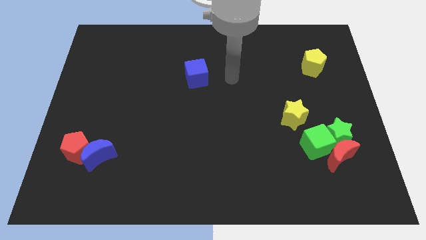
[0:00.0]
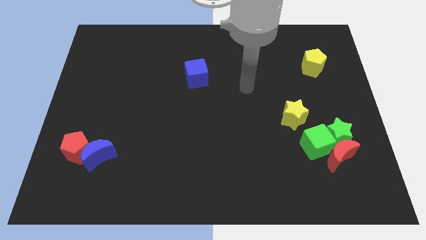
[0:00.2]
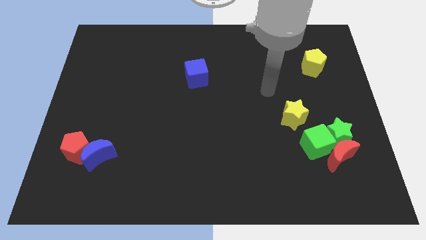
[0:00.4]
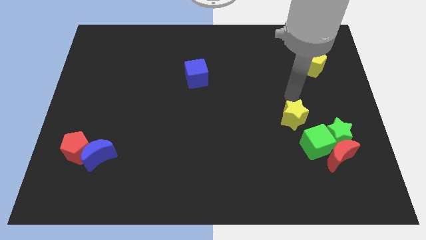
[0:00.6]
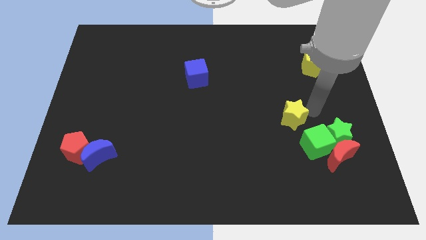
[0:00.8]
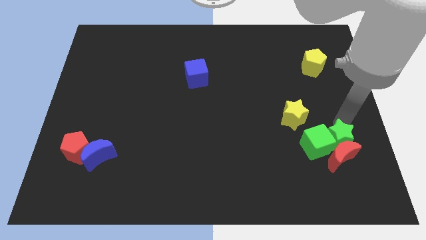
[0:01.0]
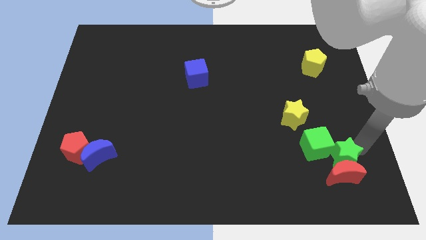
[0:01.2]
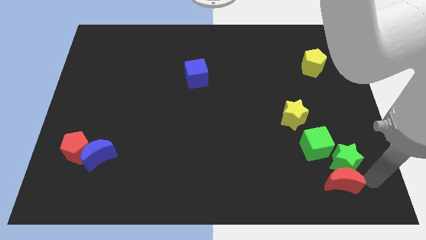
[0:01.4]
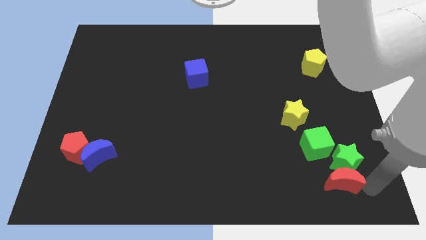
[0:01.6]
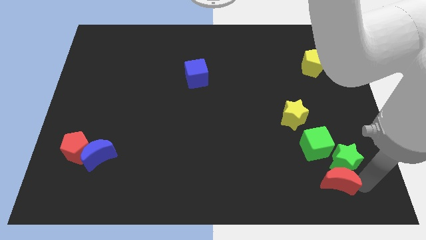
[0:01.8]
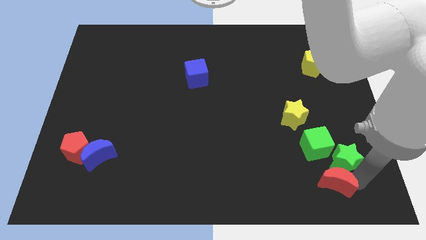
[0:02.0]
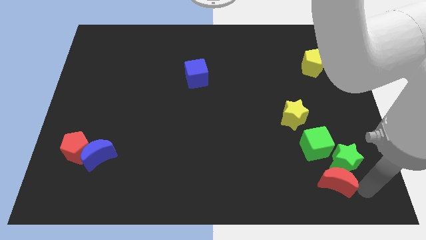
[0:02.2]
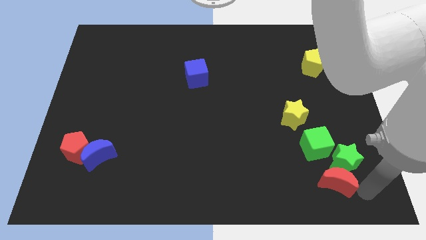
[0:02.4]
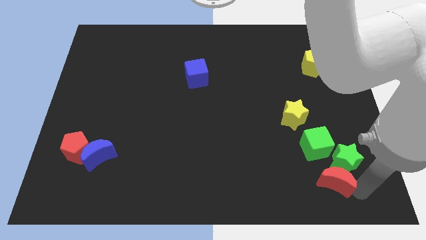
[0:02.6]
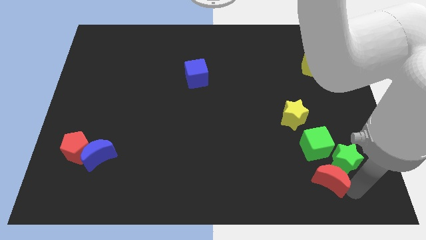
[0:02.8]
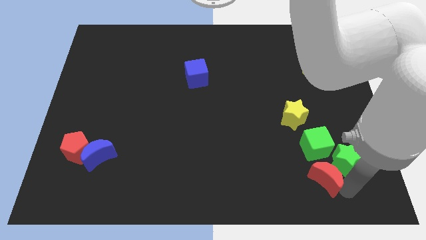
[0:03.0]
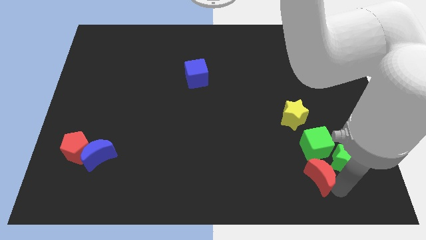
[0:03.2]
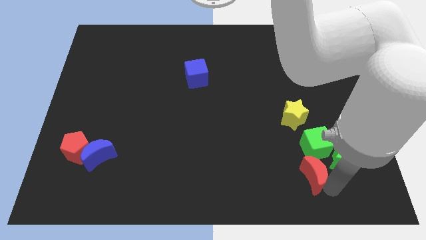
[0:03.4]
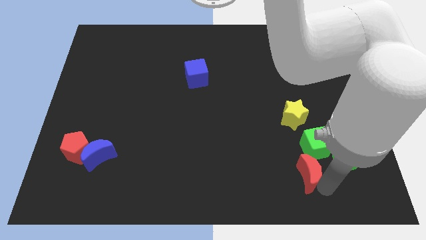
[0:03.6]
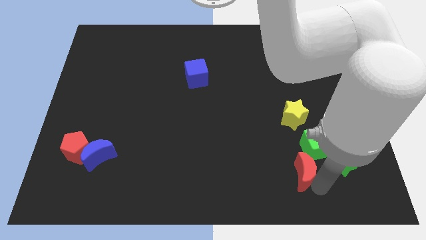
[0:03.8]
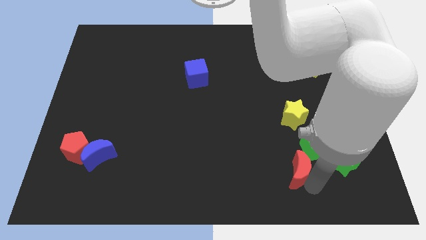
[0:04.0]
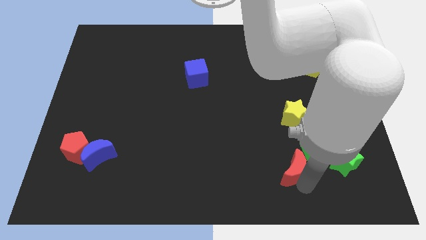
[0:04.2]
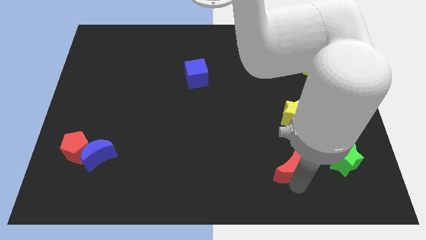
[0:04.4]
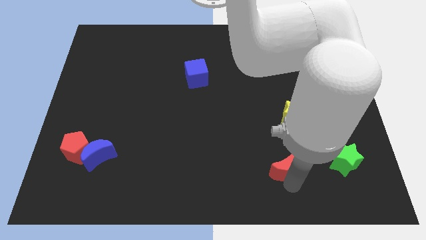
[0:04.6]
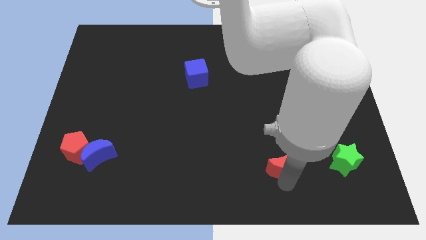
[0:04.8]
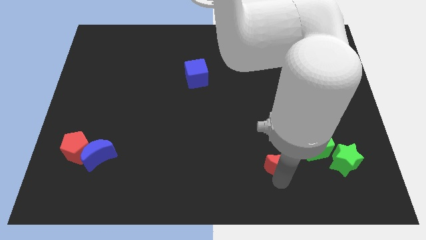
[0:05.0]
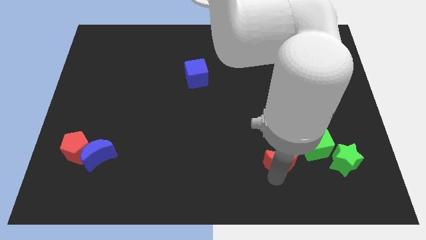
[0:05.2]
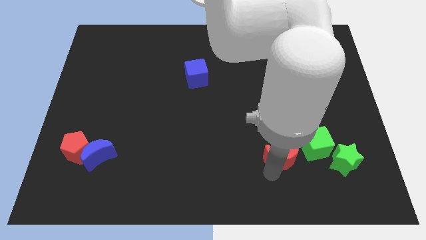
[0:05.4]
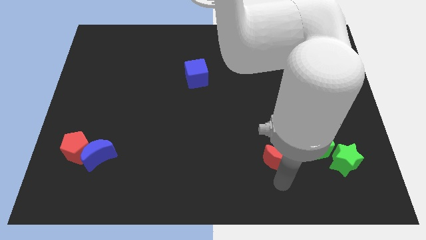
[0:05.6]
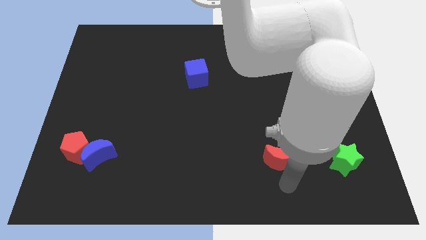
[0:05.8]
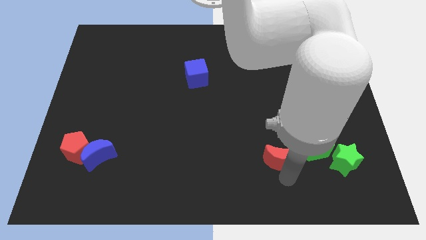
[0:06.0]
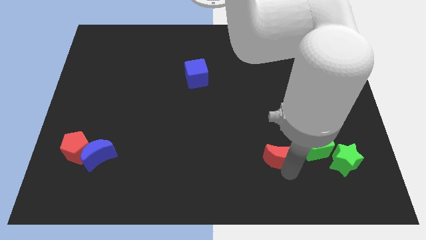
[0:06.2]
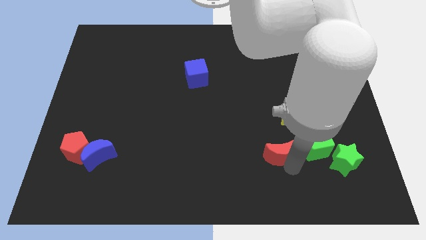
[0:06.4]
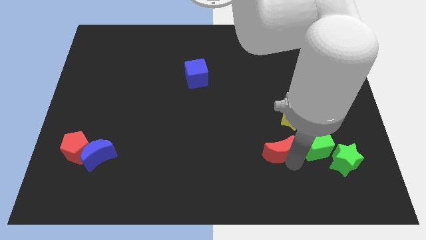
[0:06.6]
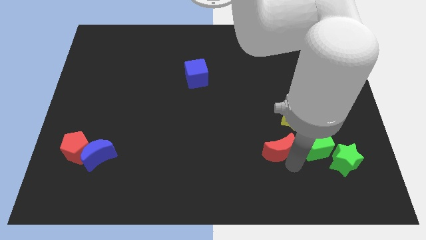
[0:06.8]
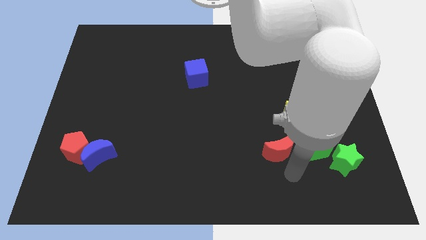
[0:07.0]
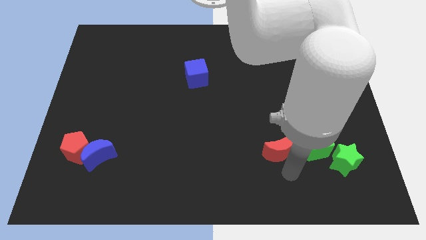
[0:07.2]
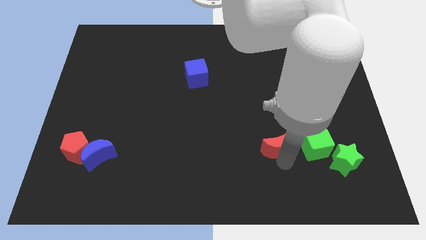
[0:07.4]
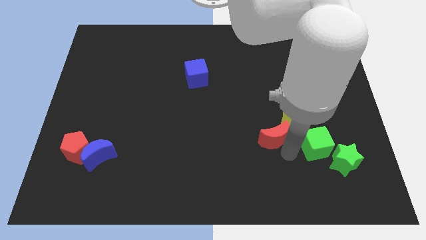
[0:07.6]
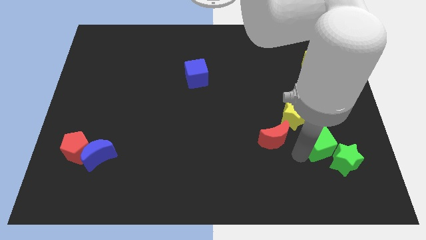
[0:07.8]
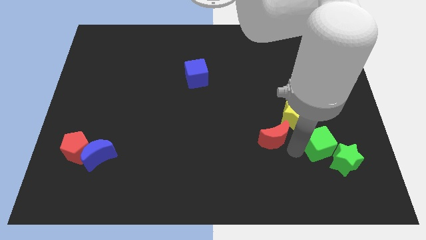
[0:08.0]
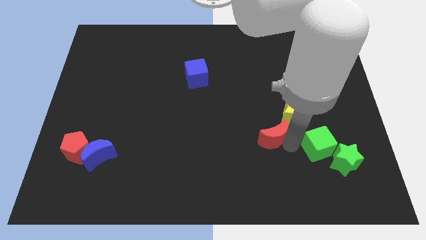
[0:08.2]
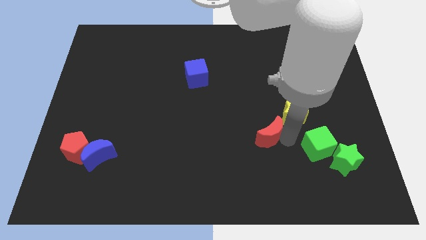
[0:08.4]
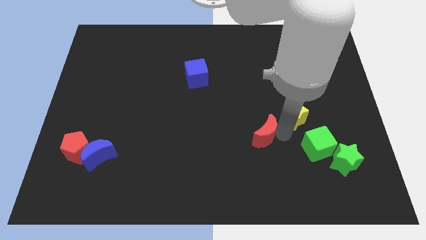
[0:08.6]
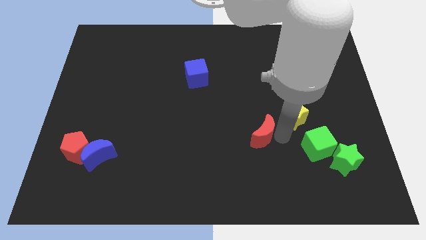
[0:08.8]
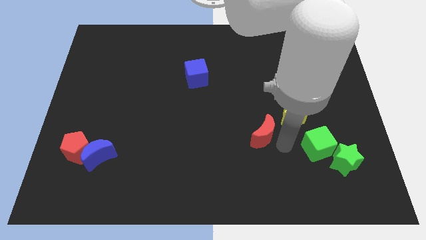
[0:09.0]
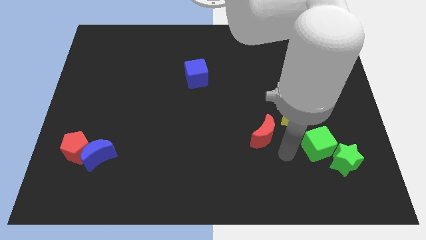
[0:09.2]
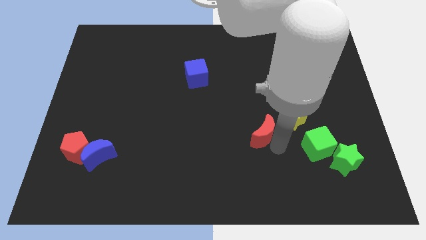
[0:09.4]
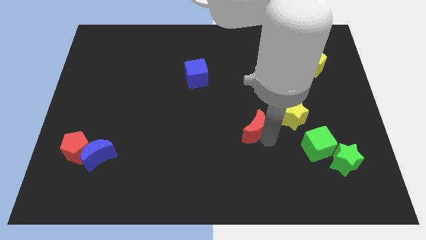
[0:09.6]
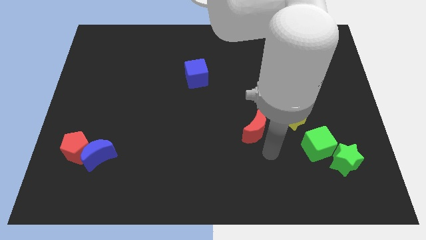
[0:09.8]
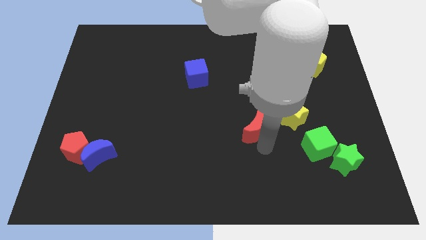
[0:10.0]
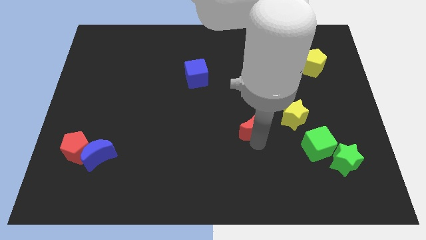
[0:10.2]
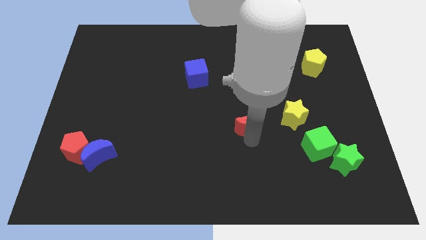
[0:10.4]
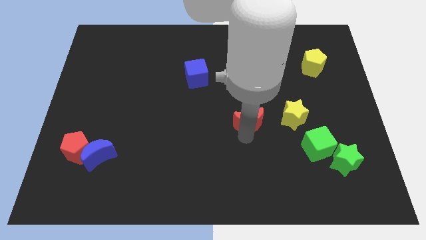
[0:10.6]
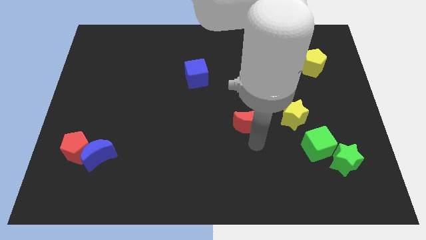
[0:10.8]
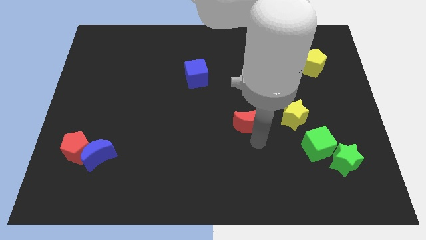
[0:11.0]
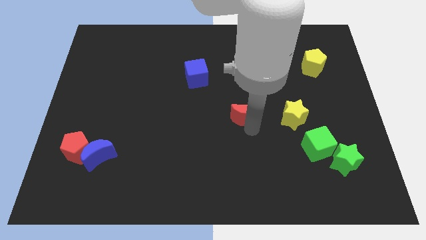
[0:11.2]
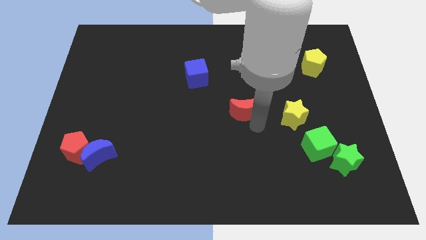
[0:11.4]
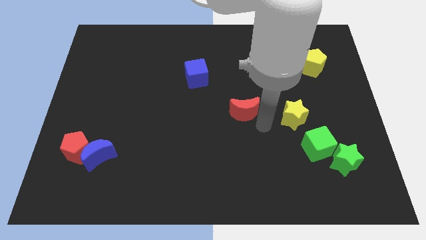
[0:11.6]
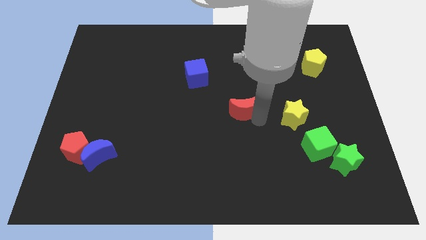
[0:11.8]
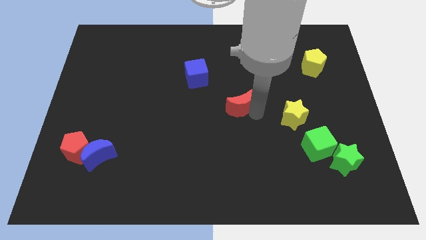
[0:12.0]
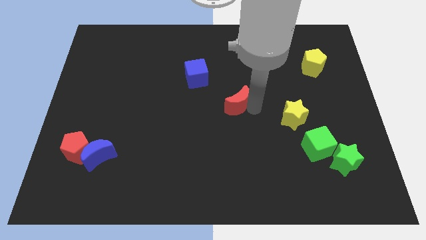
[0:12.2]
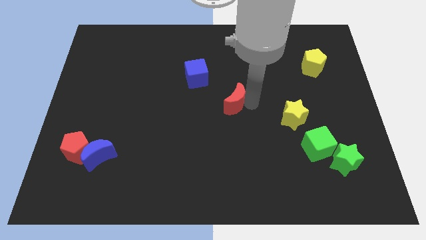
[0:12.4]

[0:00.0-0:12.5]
put the red moon to the bottom right of the blue cube
